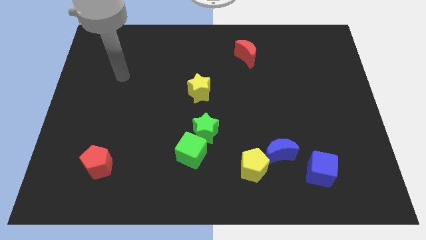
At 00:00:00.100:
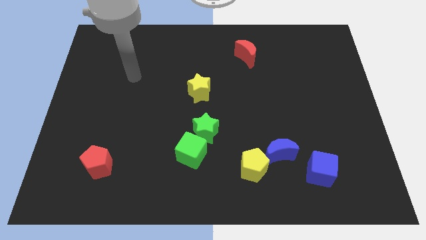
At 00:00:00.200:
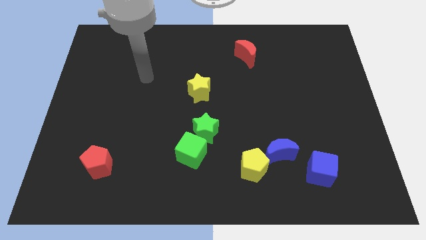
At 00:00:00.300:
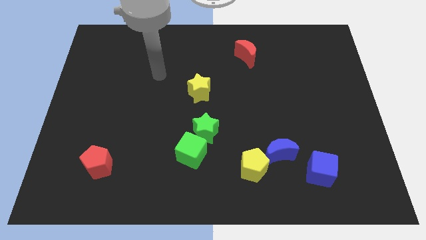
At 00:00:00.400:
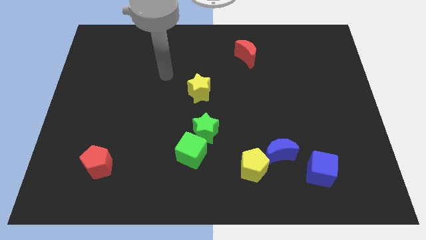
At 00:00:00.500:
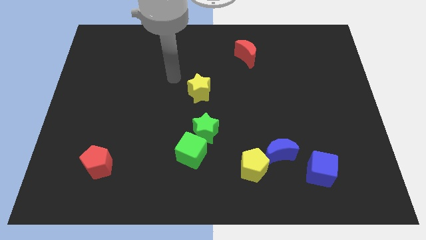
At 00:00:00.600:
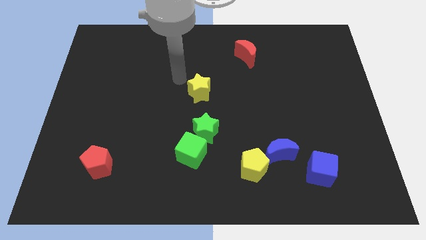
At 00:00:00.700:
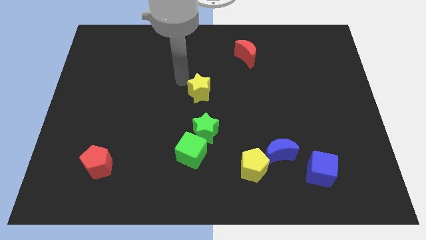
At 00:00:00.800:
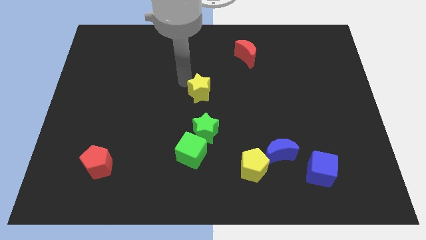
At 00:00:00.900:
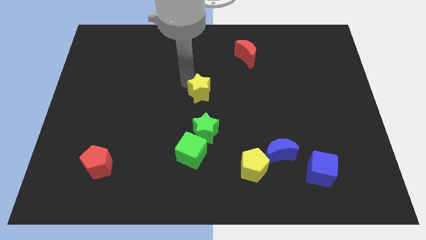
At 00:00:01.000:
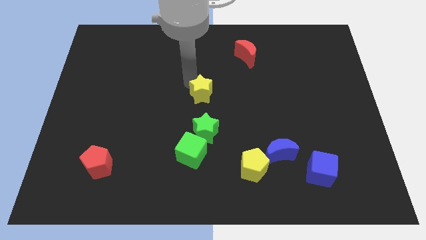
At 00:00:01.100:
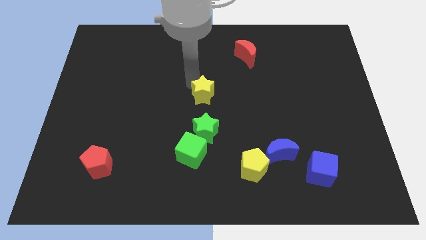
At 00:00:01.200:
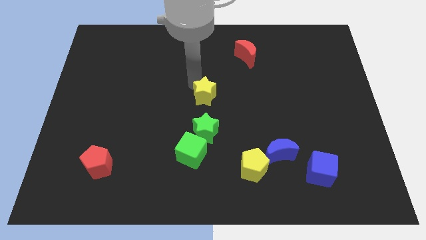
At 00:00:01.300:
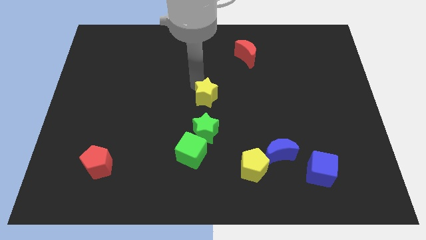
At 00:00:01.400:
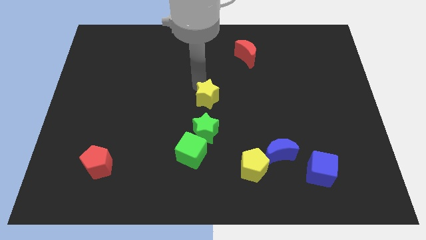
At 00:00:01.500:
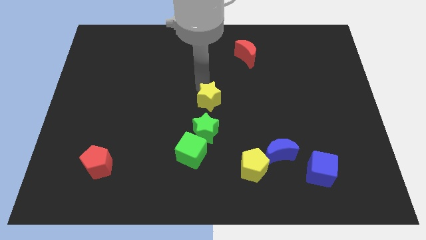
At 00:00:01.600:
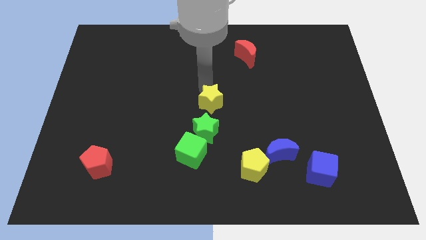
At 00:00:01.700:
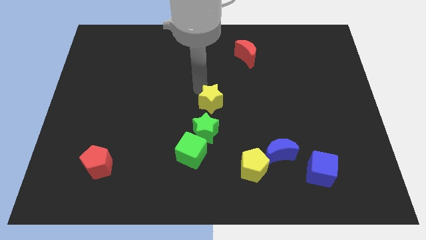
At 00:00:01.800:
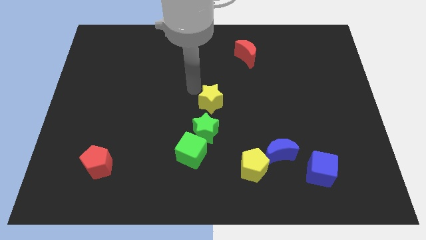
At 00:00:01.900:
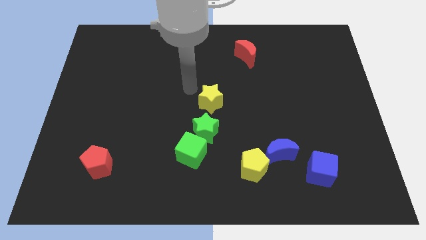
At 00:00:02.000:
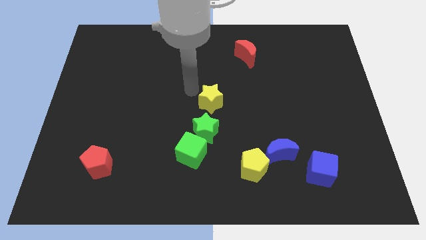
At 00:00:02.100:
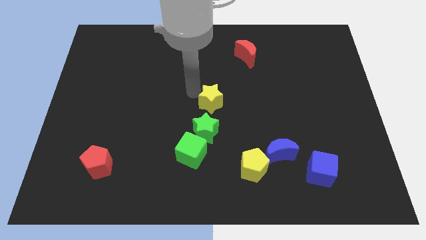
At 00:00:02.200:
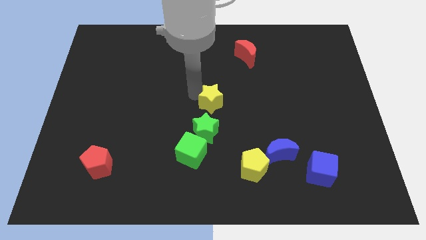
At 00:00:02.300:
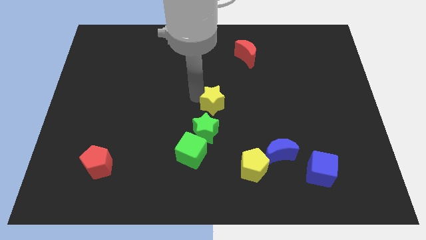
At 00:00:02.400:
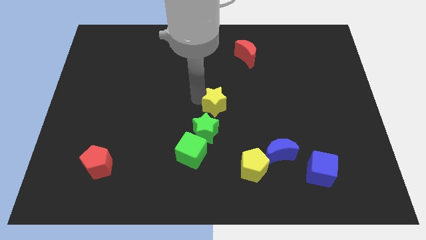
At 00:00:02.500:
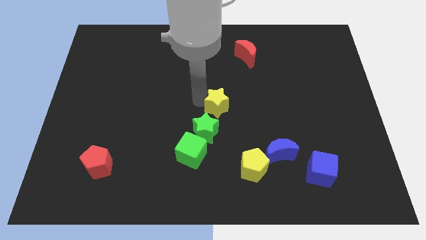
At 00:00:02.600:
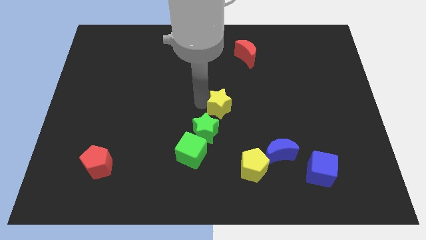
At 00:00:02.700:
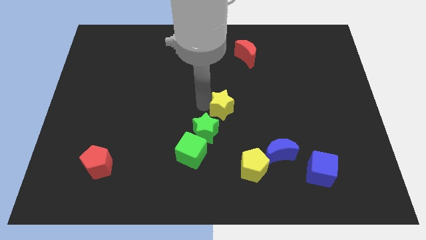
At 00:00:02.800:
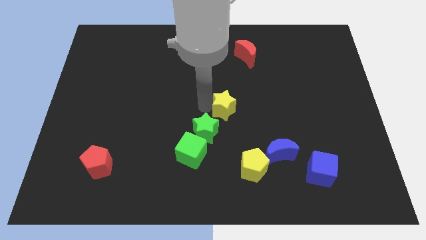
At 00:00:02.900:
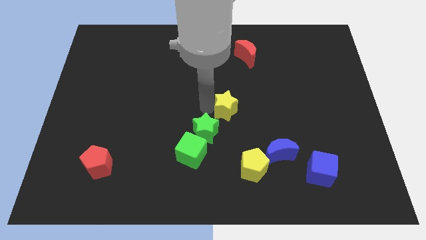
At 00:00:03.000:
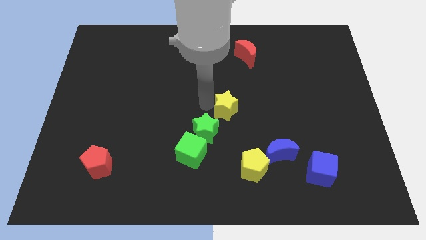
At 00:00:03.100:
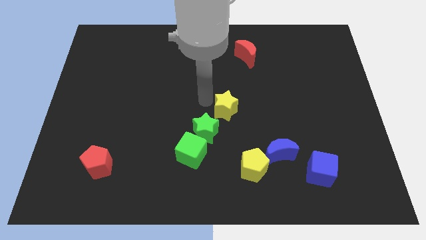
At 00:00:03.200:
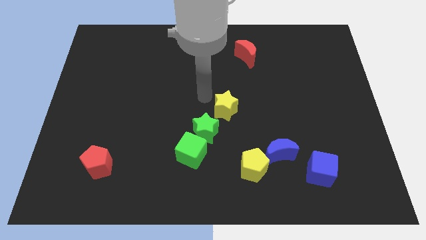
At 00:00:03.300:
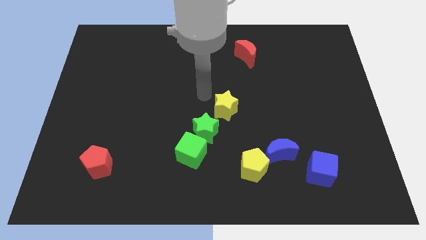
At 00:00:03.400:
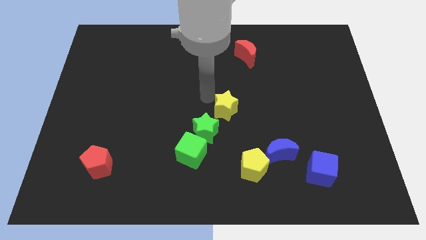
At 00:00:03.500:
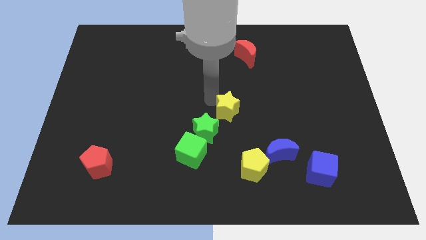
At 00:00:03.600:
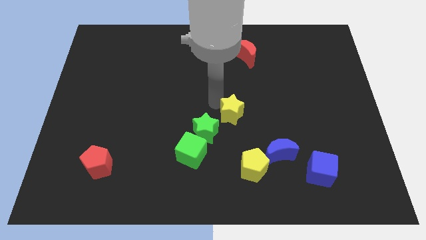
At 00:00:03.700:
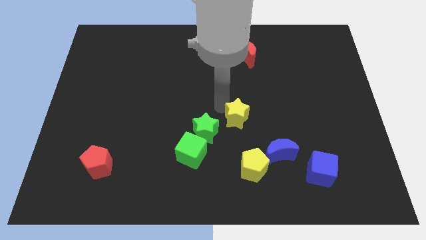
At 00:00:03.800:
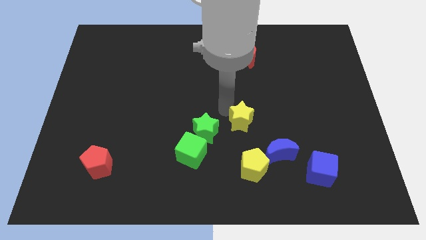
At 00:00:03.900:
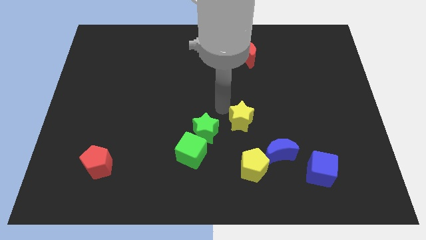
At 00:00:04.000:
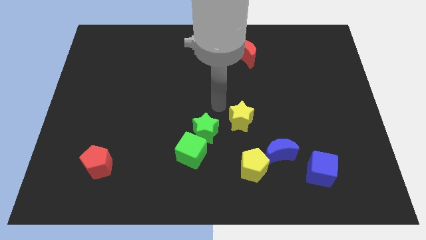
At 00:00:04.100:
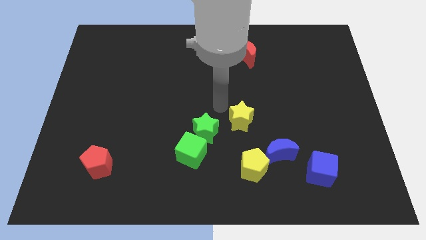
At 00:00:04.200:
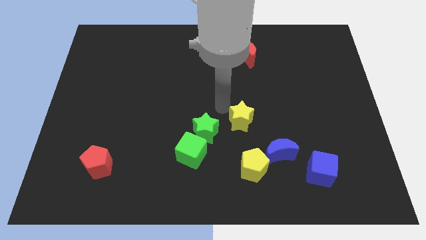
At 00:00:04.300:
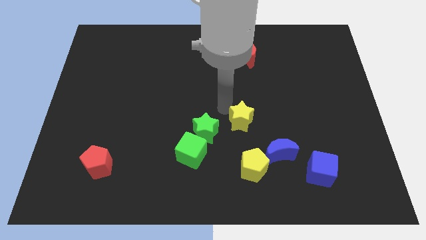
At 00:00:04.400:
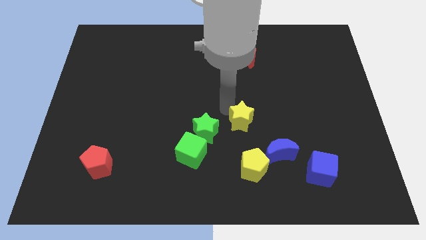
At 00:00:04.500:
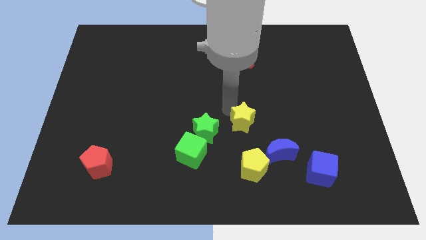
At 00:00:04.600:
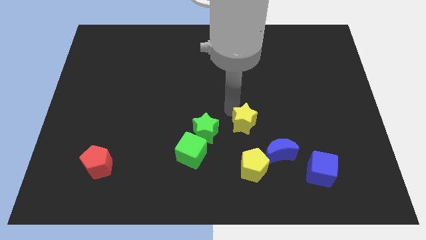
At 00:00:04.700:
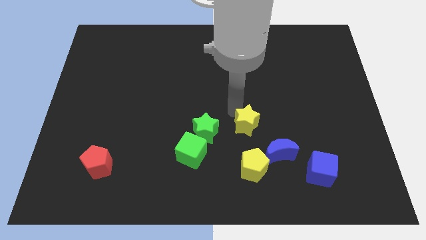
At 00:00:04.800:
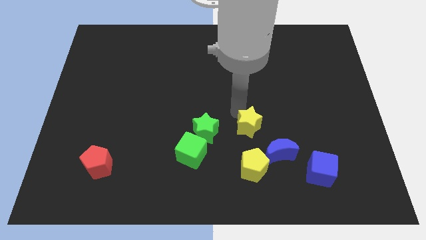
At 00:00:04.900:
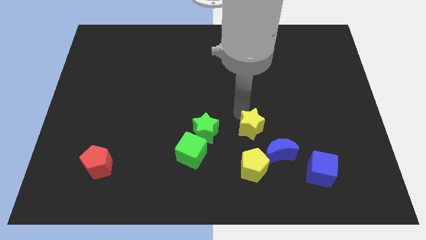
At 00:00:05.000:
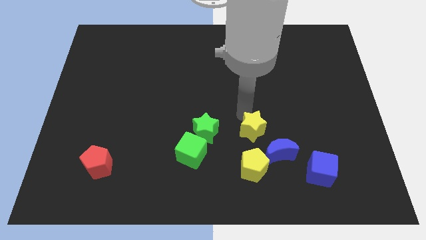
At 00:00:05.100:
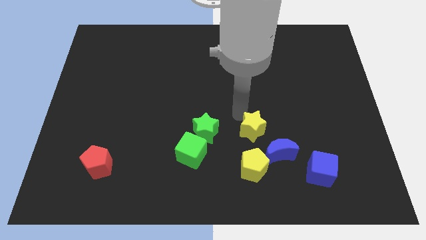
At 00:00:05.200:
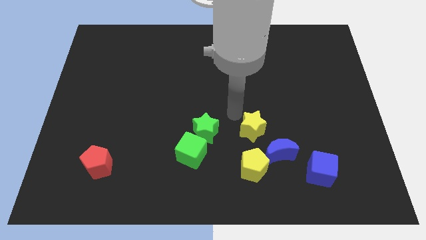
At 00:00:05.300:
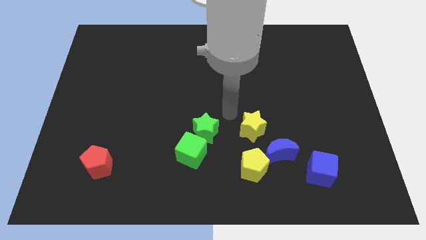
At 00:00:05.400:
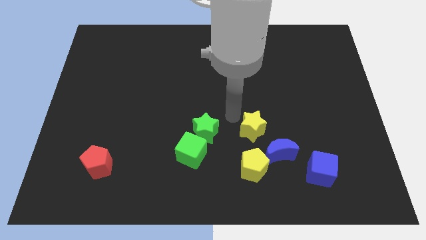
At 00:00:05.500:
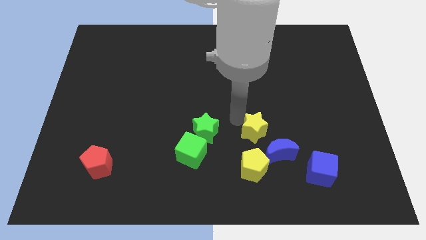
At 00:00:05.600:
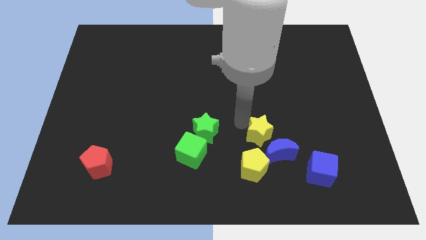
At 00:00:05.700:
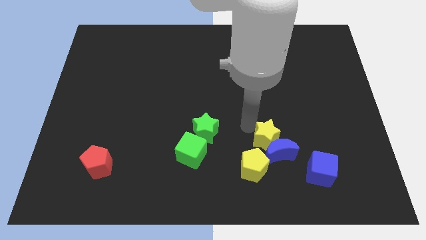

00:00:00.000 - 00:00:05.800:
put the yellow star next to the blue moon

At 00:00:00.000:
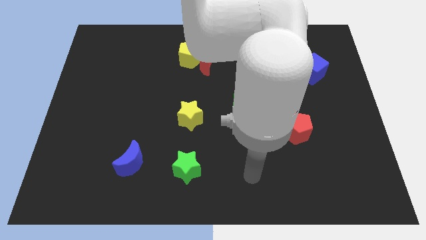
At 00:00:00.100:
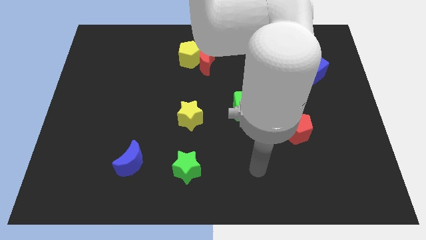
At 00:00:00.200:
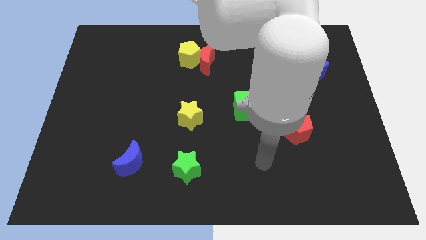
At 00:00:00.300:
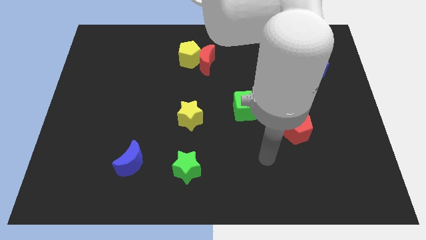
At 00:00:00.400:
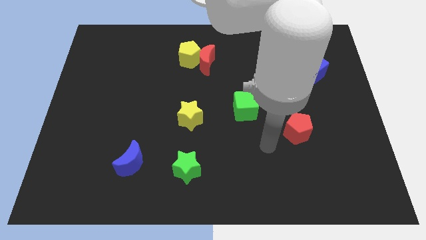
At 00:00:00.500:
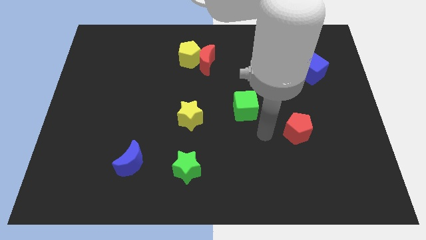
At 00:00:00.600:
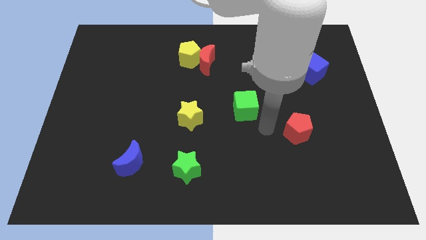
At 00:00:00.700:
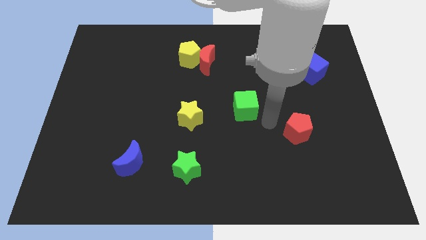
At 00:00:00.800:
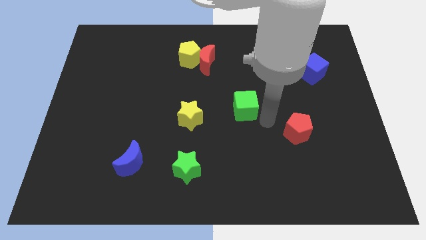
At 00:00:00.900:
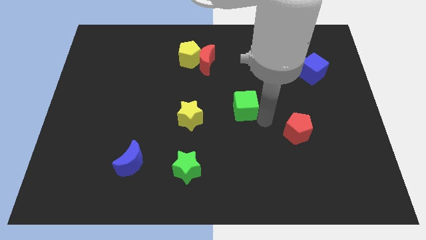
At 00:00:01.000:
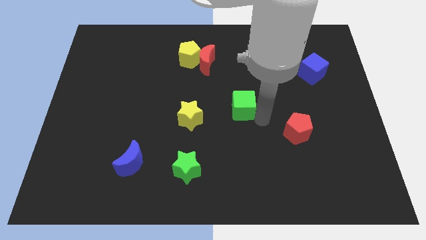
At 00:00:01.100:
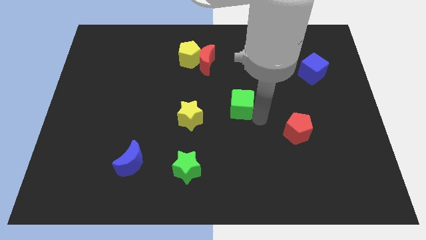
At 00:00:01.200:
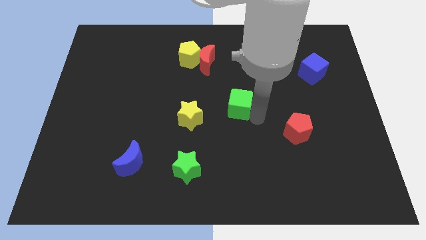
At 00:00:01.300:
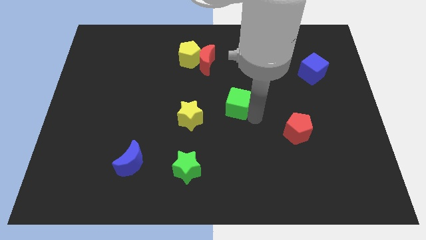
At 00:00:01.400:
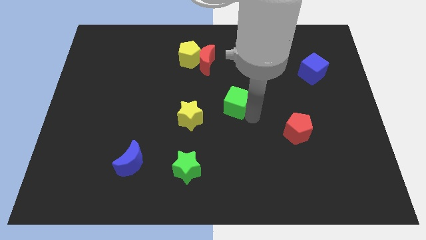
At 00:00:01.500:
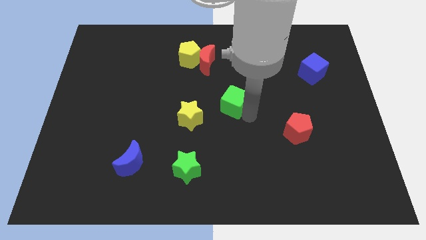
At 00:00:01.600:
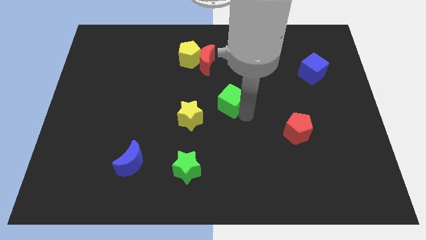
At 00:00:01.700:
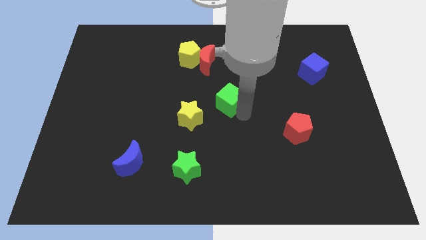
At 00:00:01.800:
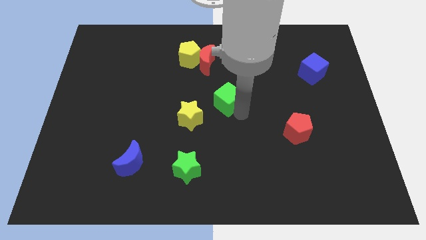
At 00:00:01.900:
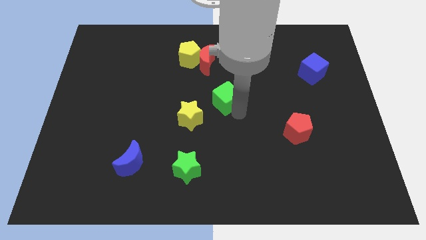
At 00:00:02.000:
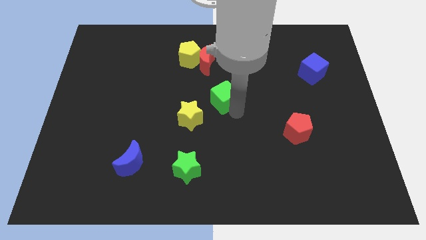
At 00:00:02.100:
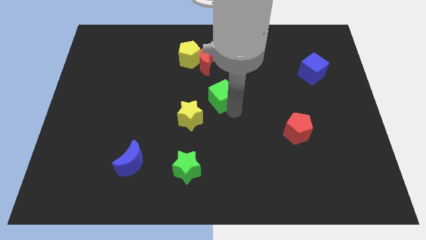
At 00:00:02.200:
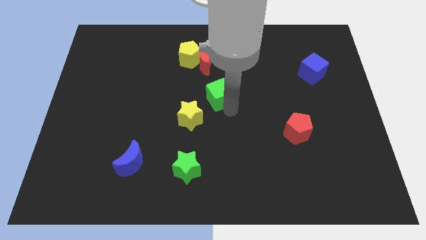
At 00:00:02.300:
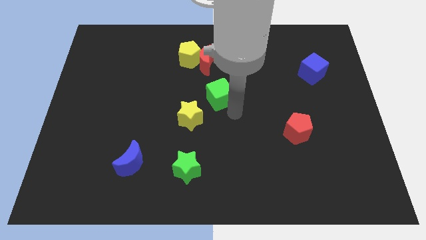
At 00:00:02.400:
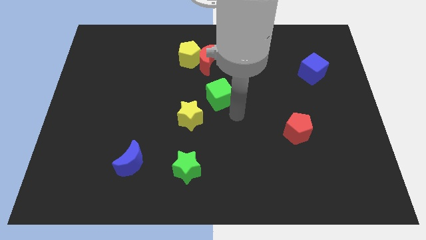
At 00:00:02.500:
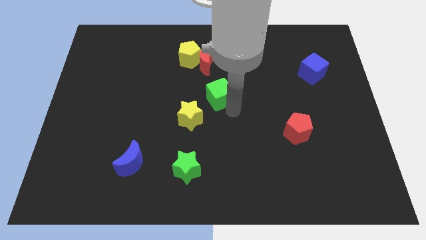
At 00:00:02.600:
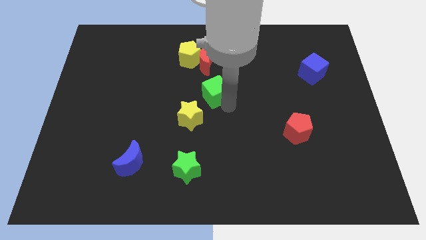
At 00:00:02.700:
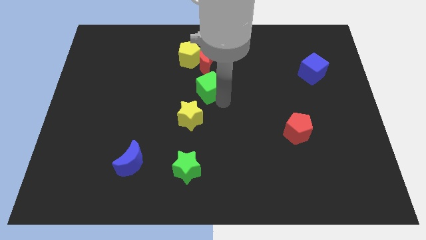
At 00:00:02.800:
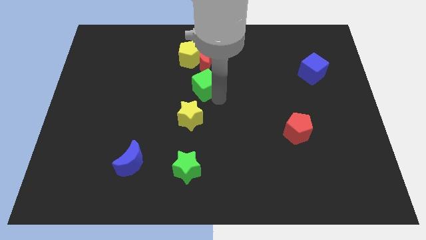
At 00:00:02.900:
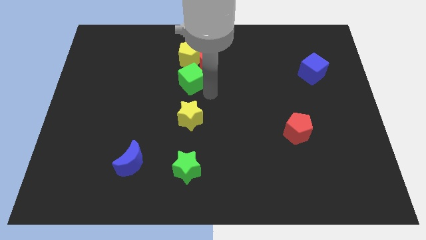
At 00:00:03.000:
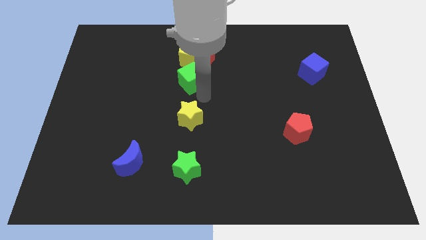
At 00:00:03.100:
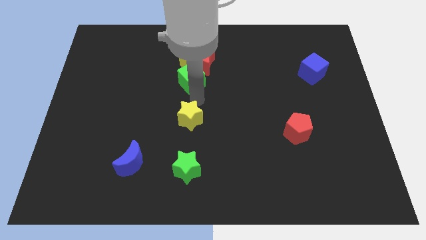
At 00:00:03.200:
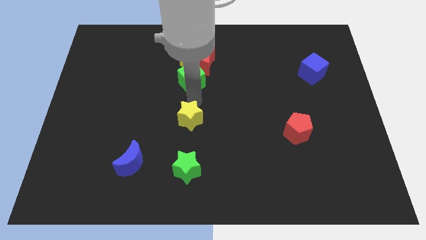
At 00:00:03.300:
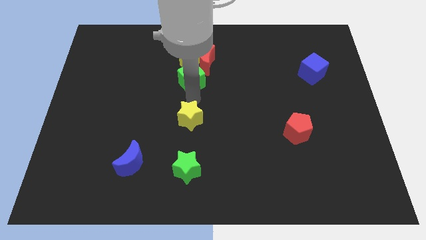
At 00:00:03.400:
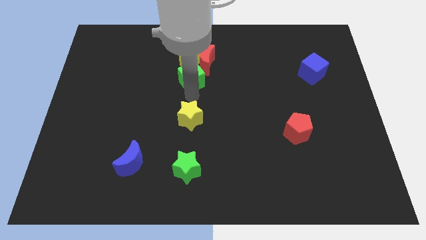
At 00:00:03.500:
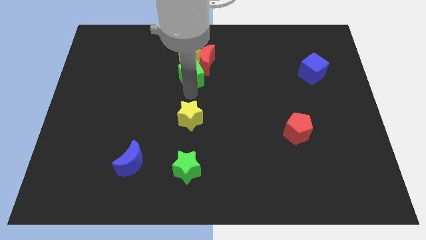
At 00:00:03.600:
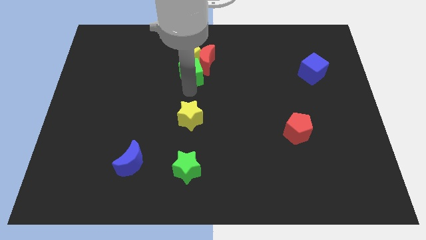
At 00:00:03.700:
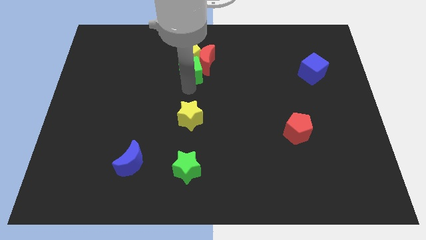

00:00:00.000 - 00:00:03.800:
move the green cube close to the yellow pentagon
